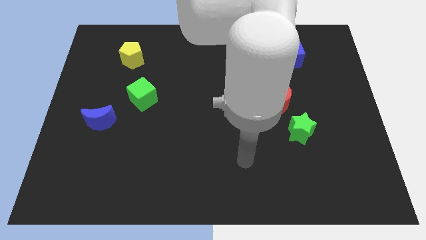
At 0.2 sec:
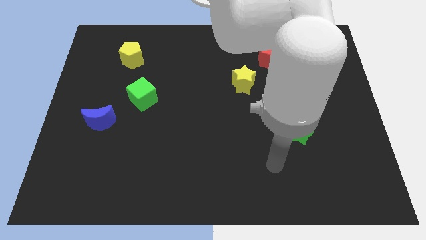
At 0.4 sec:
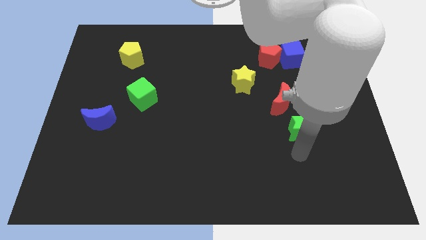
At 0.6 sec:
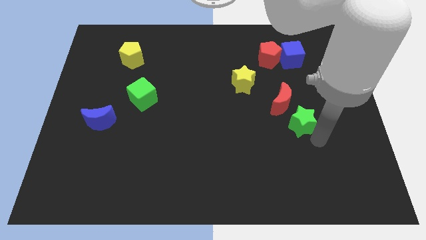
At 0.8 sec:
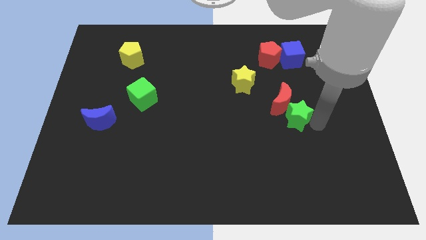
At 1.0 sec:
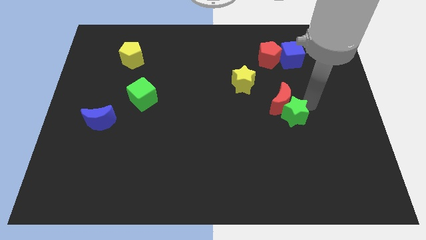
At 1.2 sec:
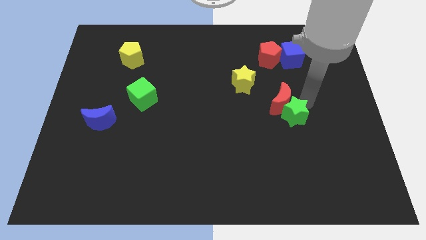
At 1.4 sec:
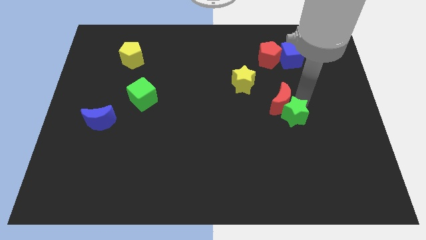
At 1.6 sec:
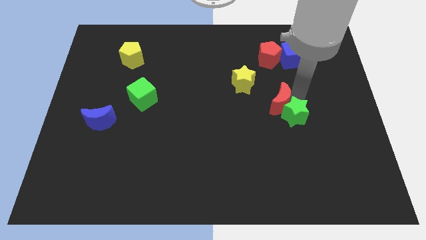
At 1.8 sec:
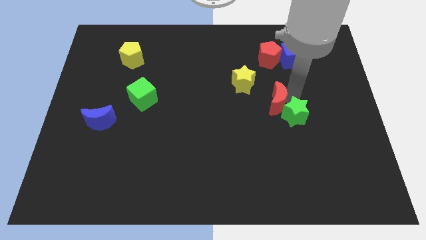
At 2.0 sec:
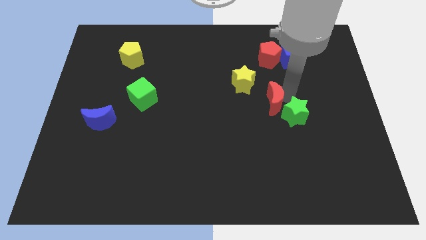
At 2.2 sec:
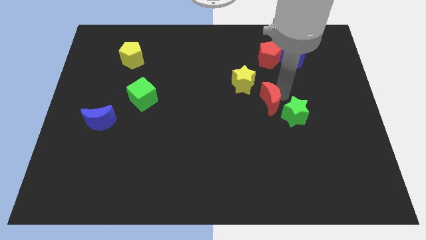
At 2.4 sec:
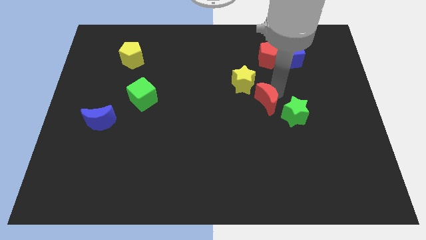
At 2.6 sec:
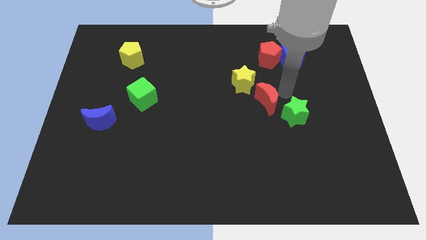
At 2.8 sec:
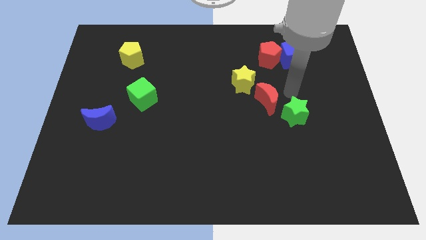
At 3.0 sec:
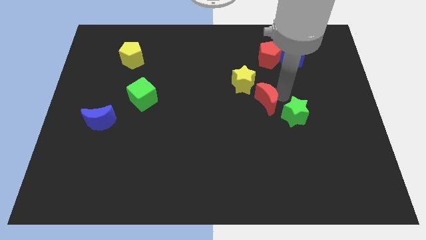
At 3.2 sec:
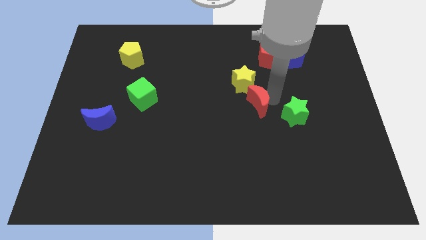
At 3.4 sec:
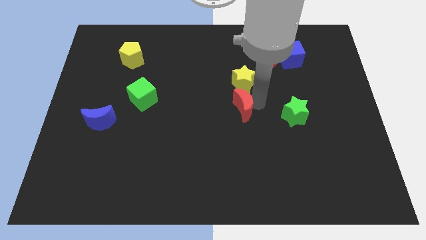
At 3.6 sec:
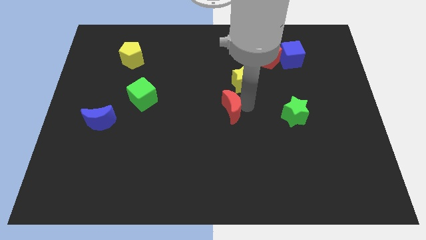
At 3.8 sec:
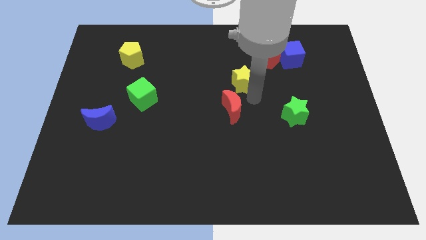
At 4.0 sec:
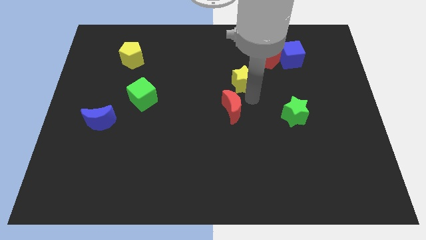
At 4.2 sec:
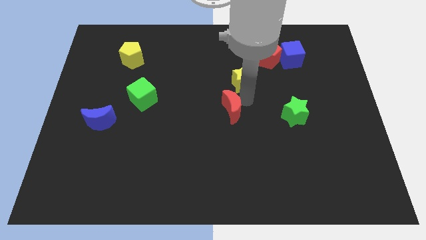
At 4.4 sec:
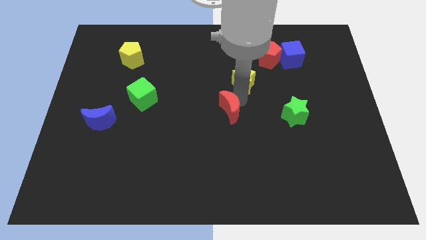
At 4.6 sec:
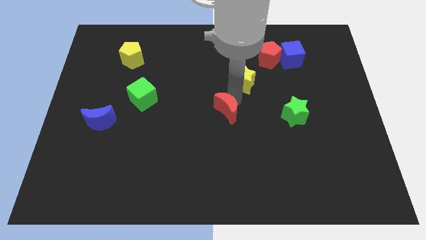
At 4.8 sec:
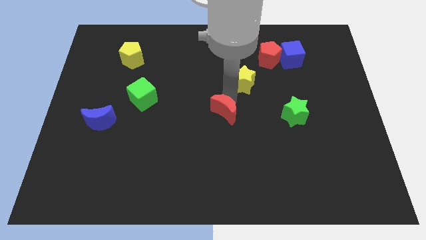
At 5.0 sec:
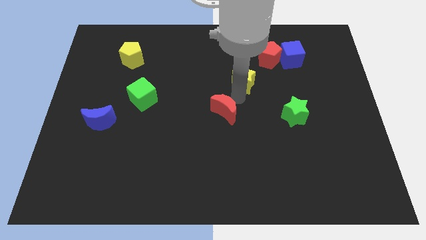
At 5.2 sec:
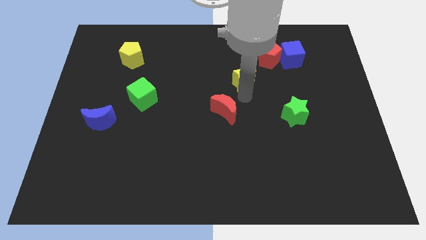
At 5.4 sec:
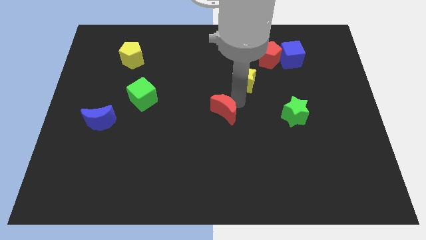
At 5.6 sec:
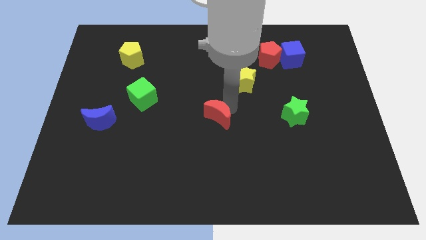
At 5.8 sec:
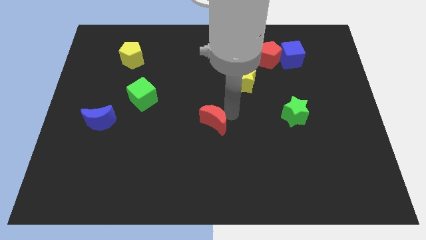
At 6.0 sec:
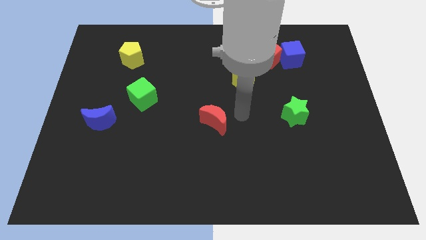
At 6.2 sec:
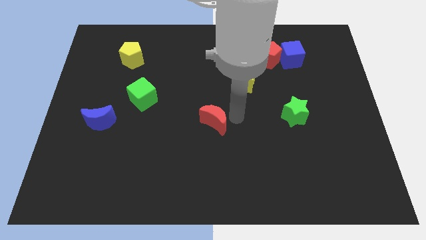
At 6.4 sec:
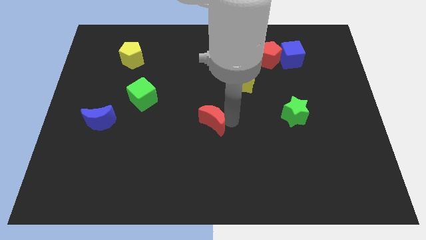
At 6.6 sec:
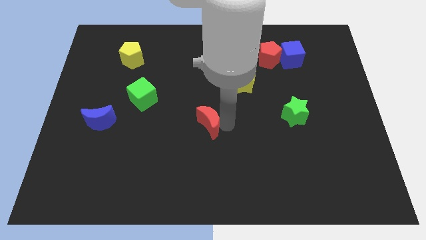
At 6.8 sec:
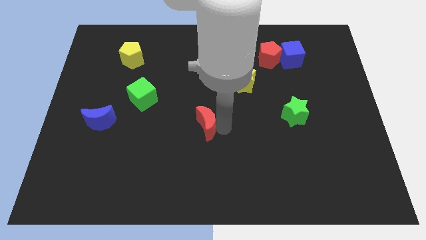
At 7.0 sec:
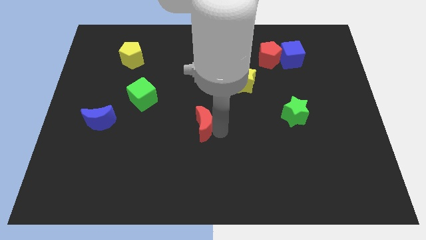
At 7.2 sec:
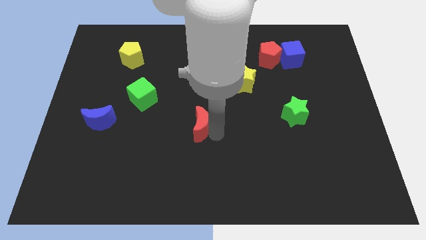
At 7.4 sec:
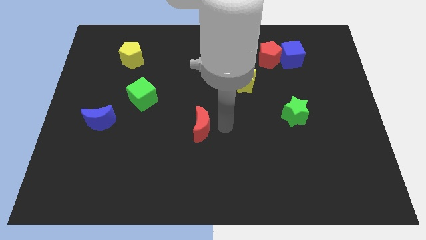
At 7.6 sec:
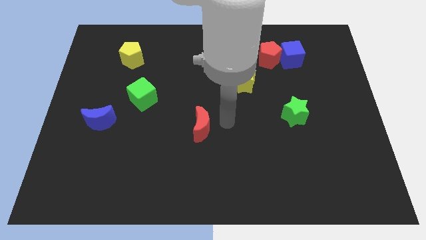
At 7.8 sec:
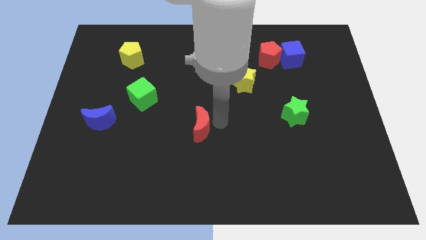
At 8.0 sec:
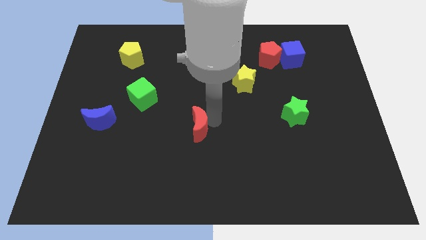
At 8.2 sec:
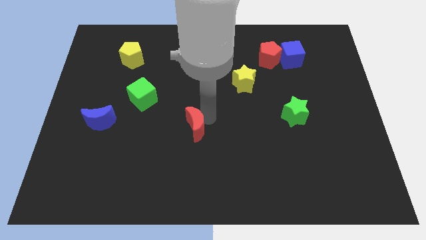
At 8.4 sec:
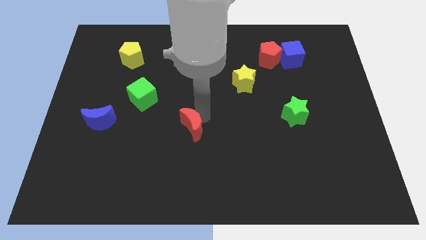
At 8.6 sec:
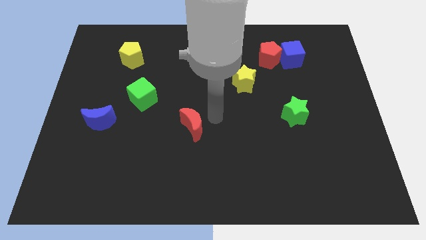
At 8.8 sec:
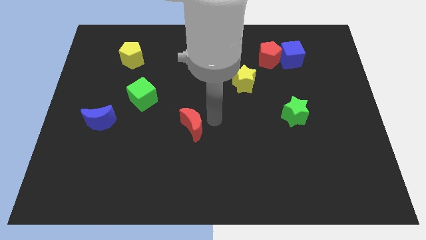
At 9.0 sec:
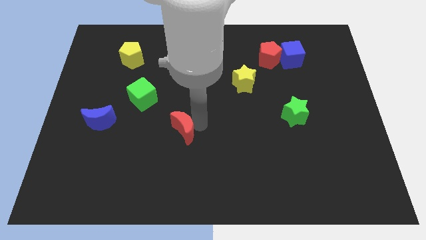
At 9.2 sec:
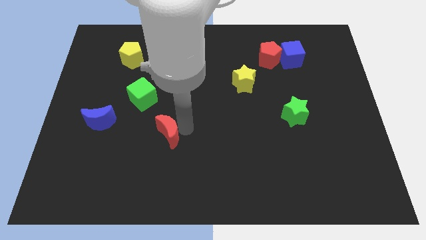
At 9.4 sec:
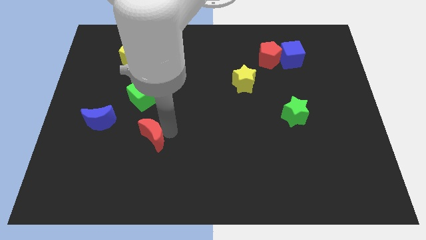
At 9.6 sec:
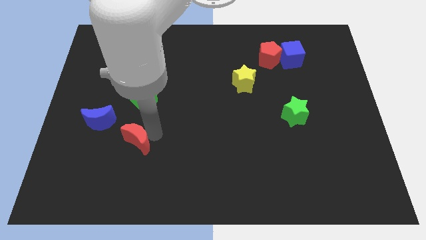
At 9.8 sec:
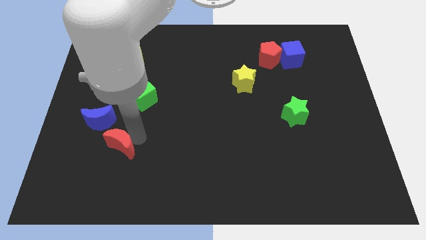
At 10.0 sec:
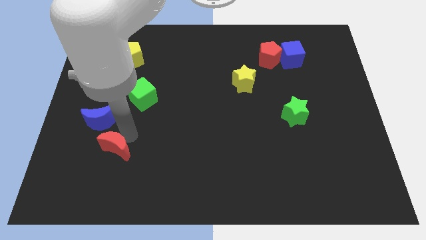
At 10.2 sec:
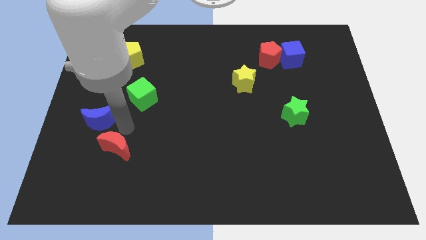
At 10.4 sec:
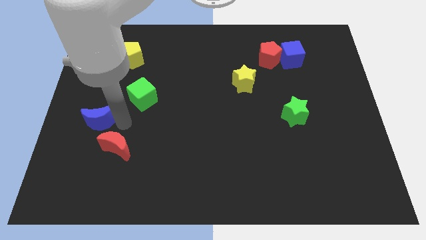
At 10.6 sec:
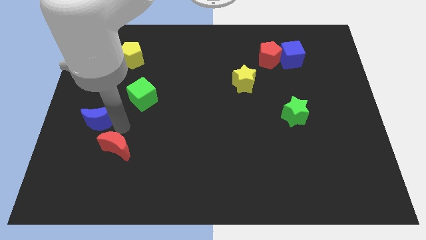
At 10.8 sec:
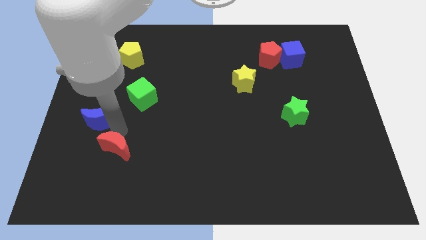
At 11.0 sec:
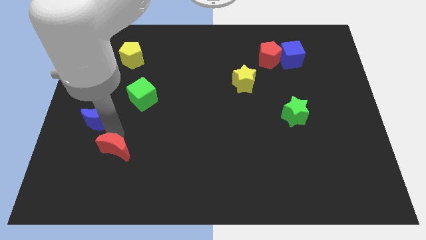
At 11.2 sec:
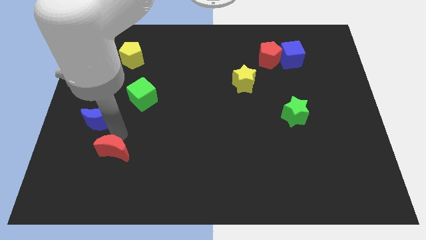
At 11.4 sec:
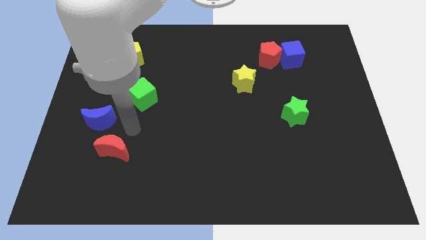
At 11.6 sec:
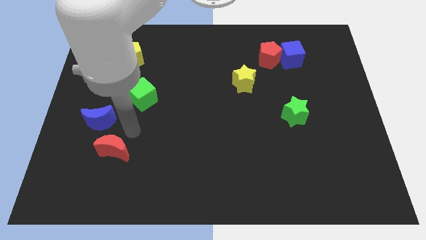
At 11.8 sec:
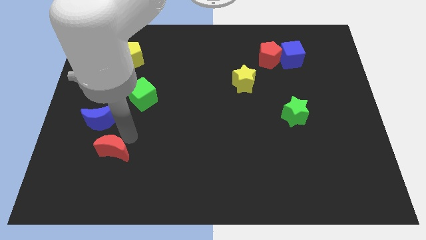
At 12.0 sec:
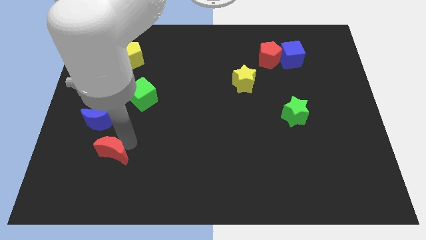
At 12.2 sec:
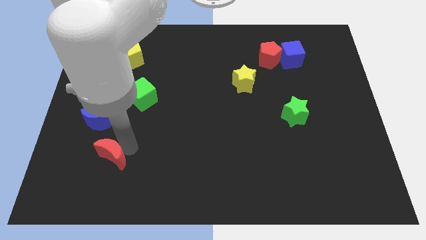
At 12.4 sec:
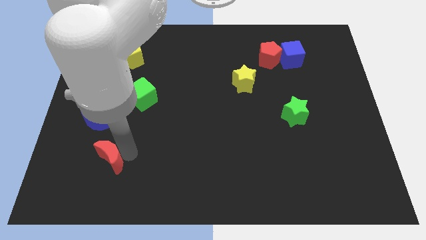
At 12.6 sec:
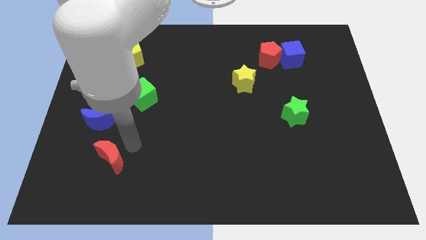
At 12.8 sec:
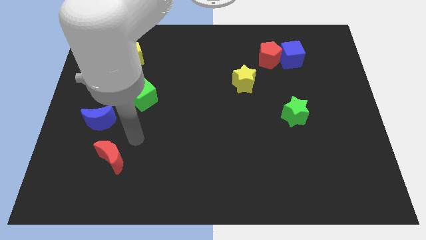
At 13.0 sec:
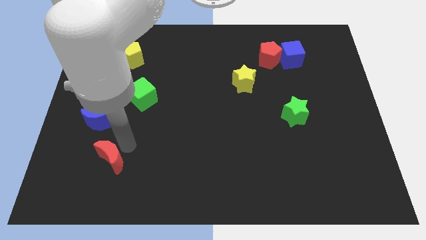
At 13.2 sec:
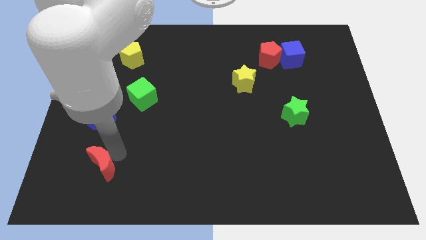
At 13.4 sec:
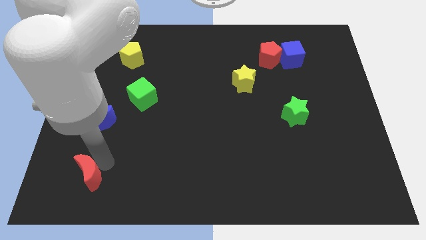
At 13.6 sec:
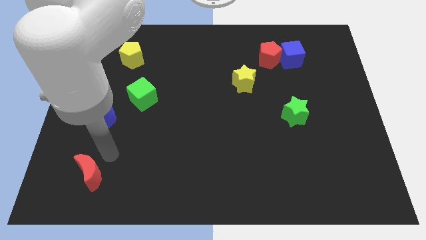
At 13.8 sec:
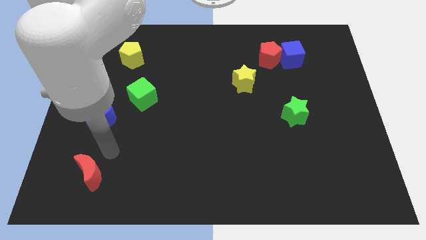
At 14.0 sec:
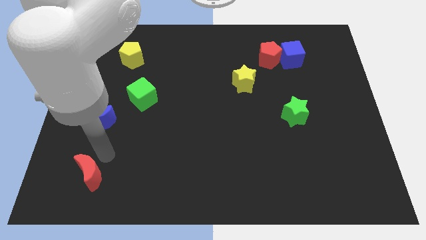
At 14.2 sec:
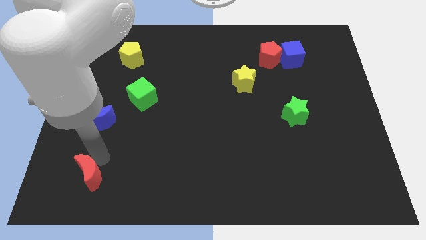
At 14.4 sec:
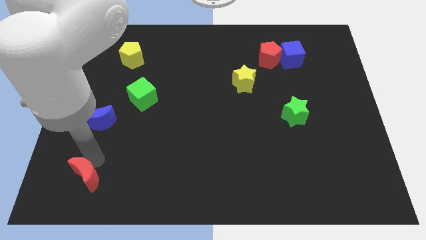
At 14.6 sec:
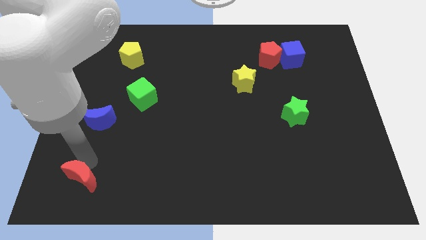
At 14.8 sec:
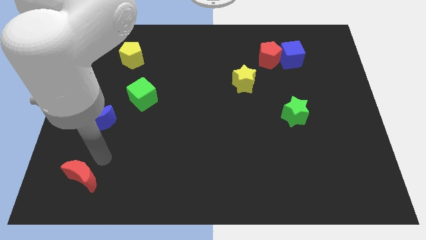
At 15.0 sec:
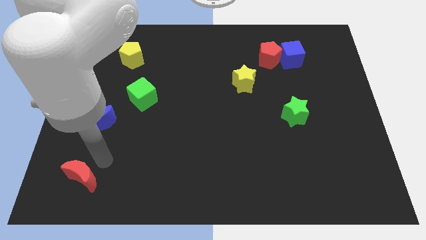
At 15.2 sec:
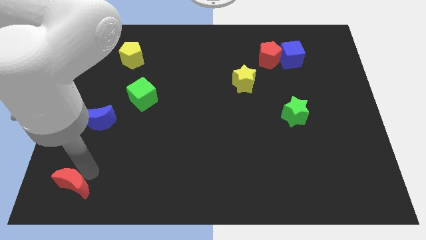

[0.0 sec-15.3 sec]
move the red moon to the bottom left corner
